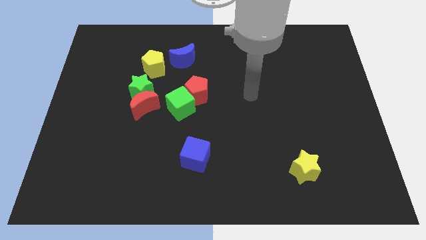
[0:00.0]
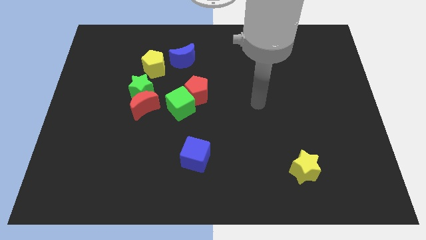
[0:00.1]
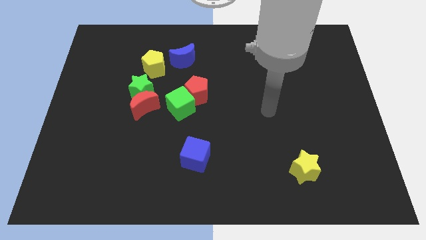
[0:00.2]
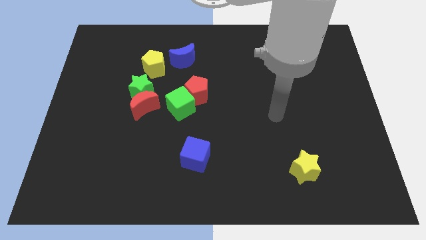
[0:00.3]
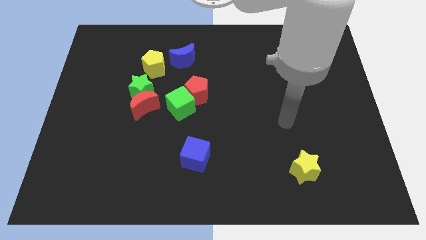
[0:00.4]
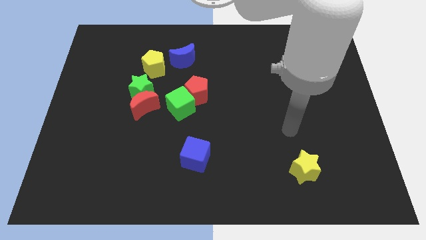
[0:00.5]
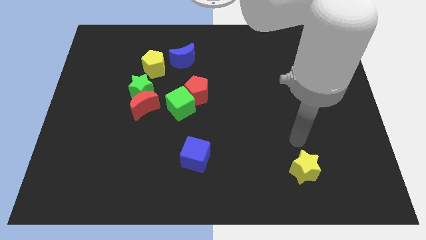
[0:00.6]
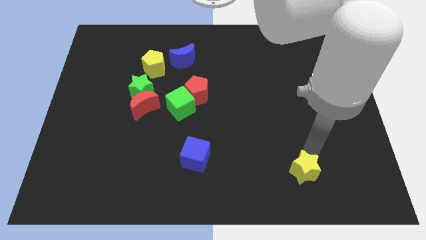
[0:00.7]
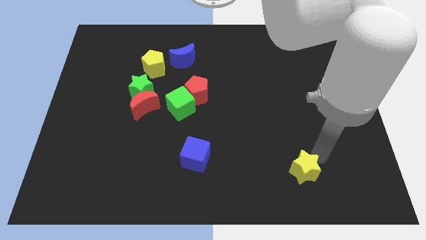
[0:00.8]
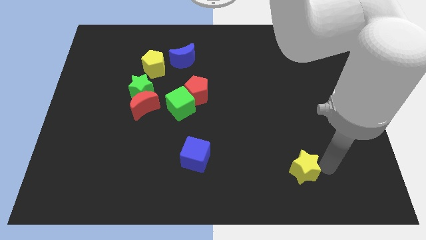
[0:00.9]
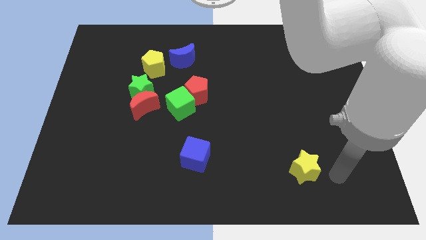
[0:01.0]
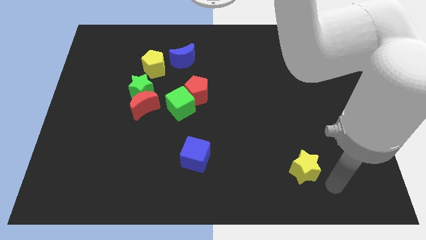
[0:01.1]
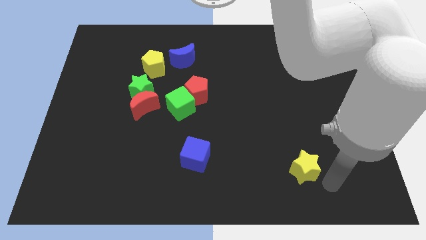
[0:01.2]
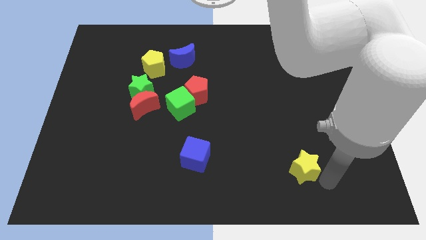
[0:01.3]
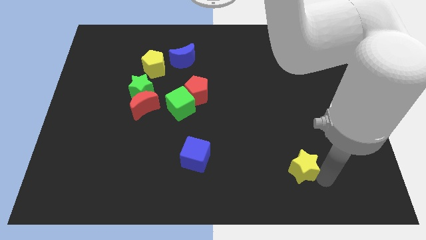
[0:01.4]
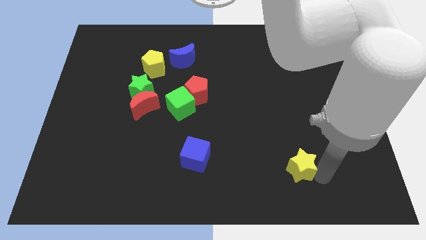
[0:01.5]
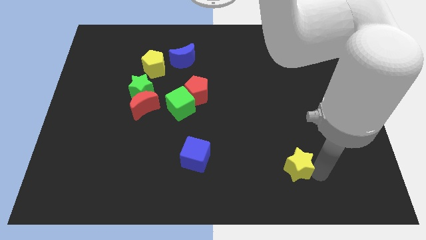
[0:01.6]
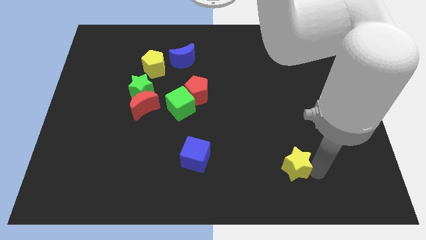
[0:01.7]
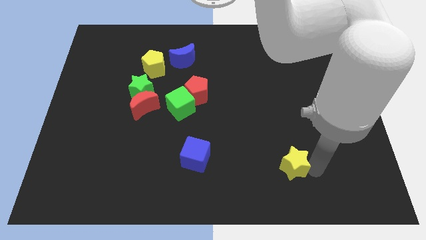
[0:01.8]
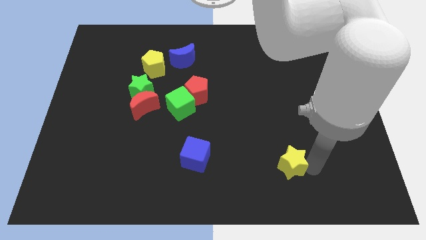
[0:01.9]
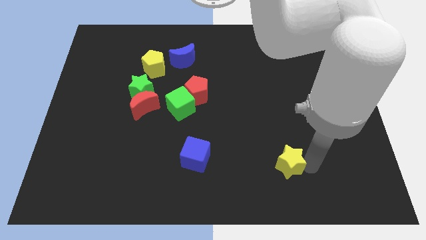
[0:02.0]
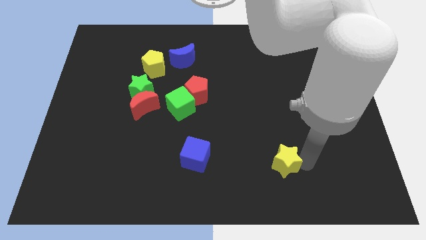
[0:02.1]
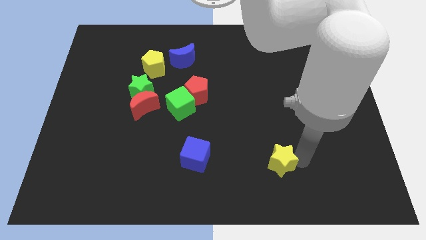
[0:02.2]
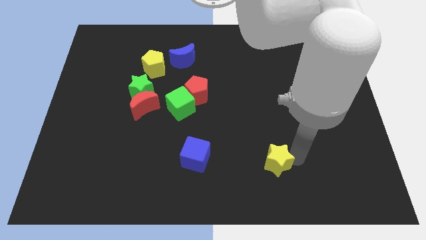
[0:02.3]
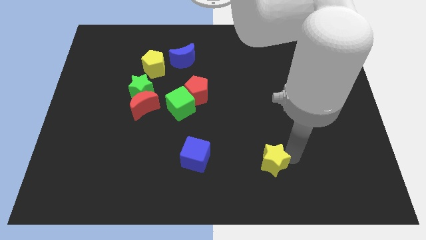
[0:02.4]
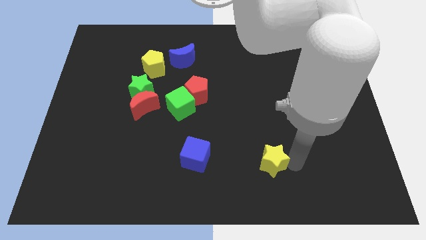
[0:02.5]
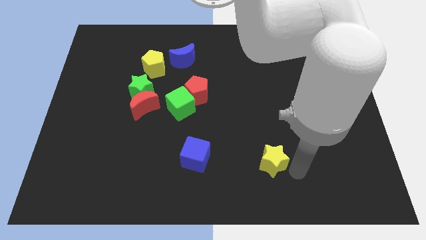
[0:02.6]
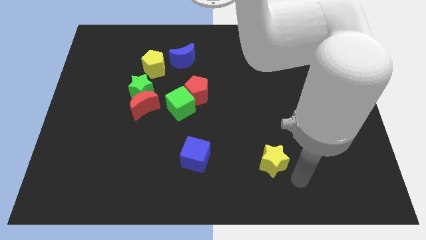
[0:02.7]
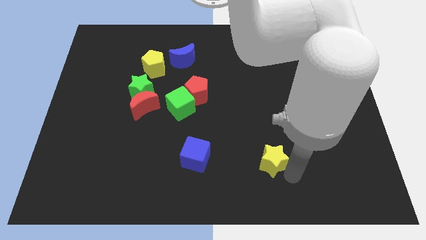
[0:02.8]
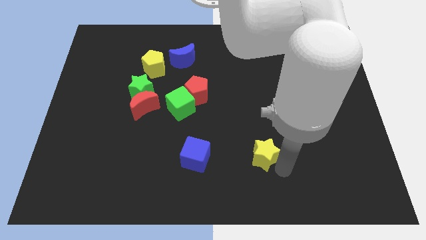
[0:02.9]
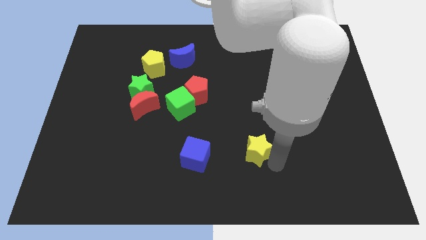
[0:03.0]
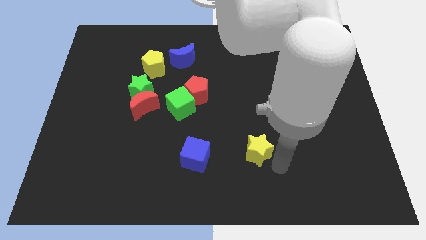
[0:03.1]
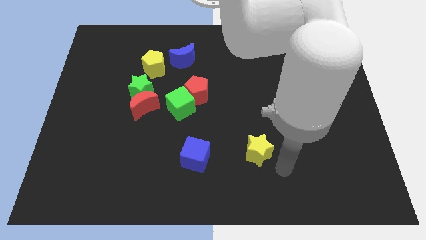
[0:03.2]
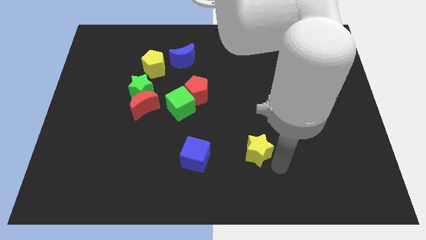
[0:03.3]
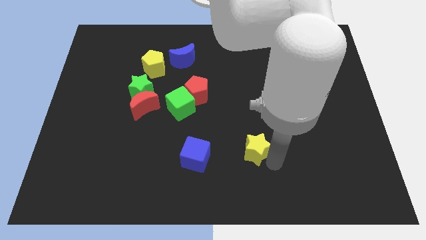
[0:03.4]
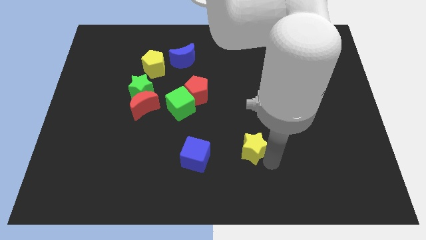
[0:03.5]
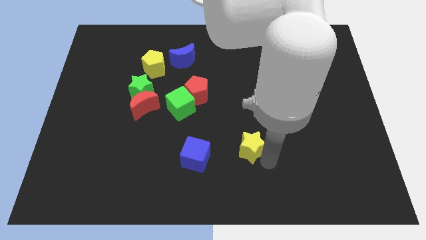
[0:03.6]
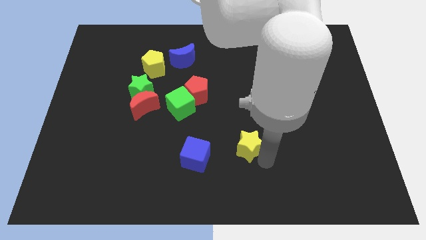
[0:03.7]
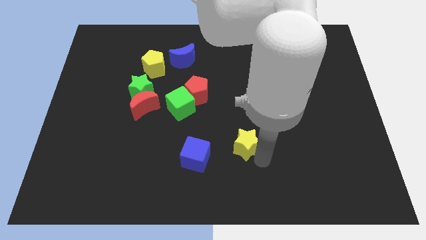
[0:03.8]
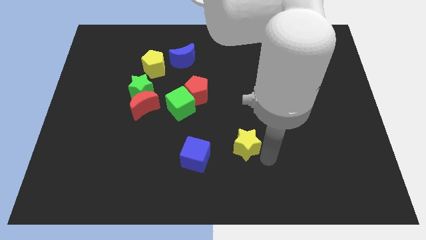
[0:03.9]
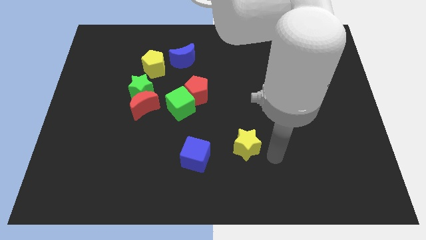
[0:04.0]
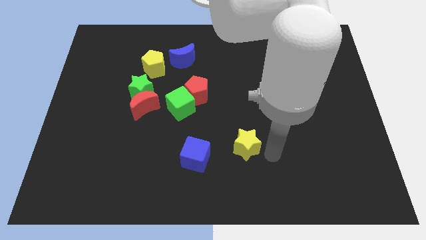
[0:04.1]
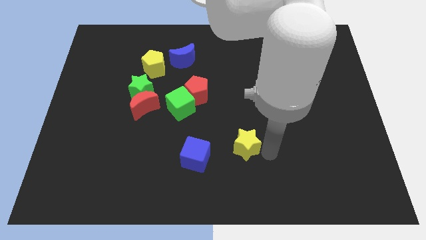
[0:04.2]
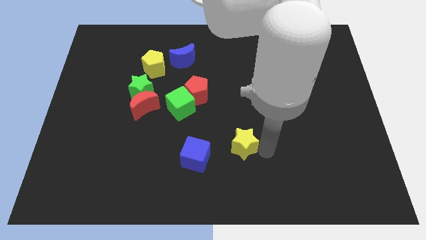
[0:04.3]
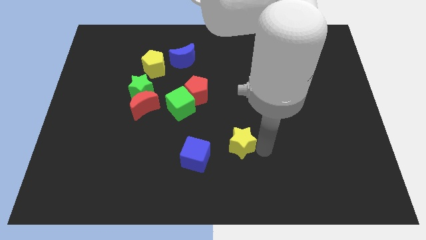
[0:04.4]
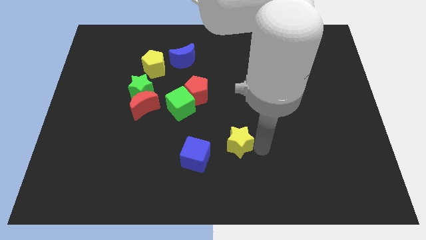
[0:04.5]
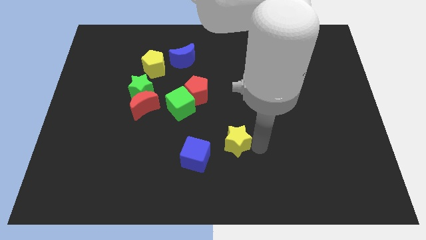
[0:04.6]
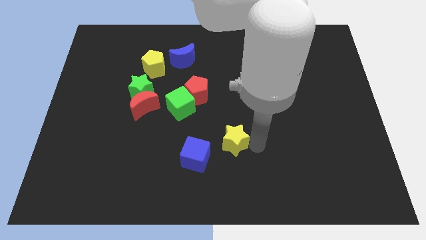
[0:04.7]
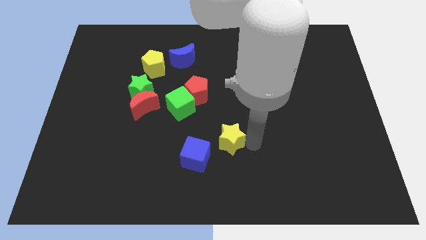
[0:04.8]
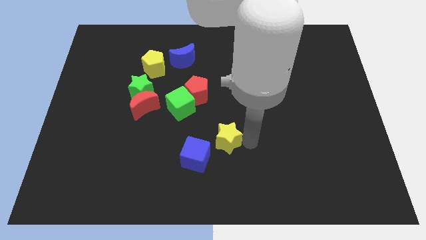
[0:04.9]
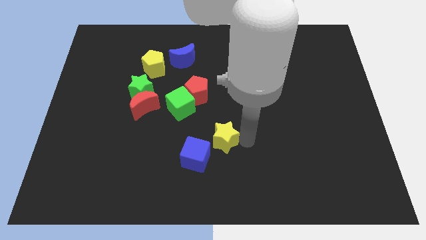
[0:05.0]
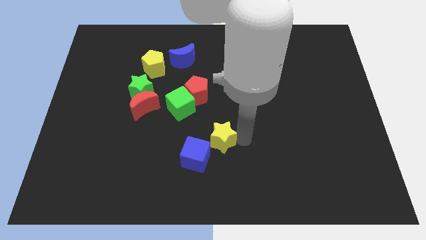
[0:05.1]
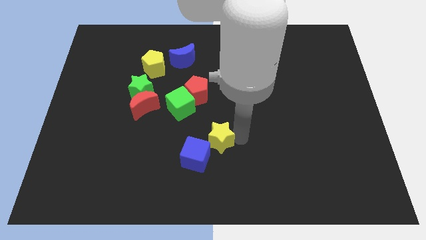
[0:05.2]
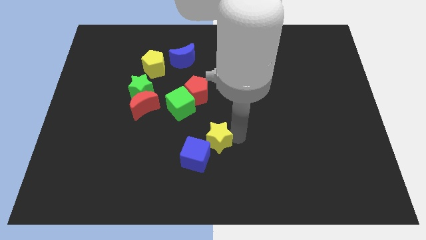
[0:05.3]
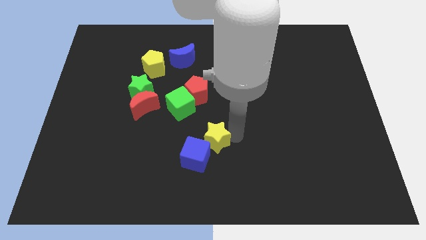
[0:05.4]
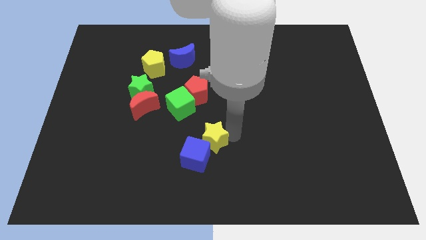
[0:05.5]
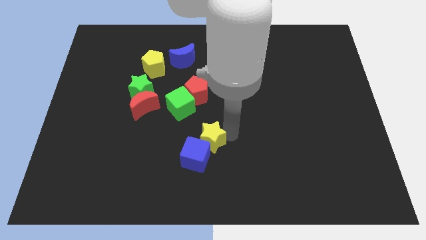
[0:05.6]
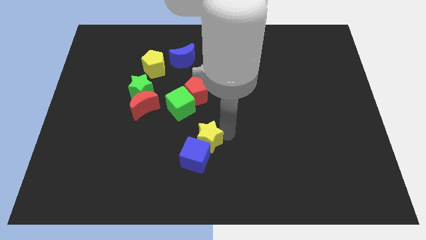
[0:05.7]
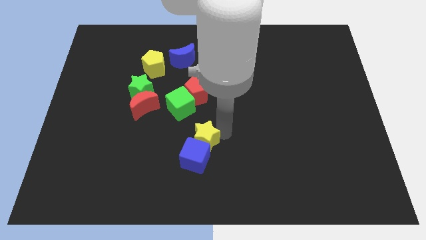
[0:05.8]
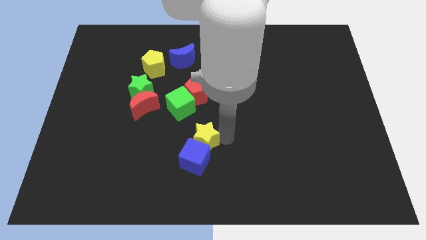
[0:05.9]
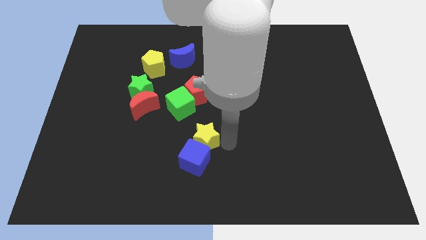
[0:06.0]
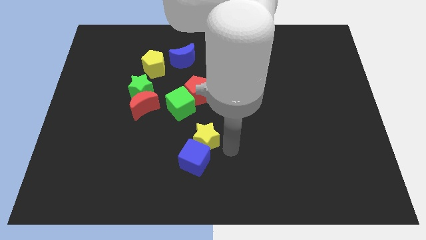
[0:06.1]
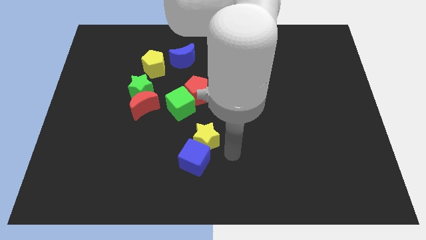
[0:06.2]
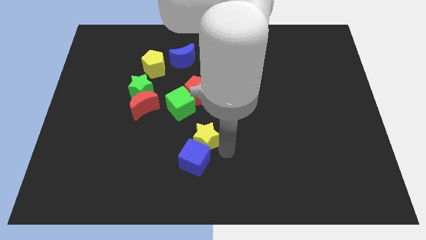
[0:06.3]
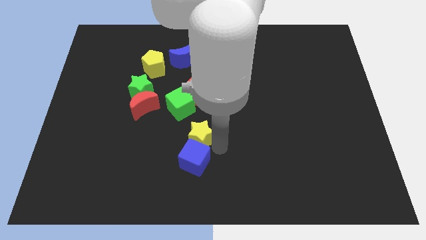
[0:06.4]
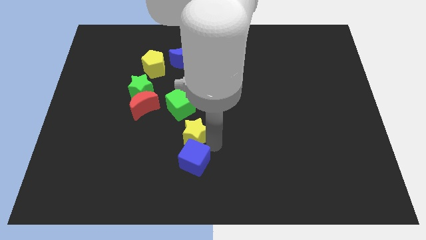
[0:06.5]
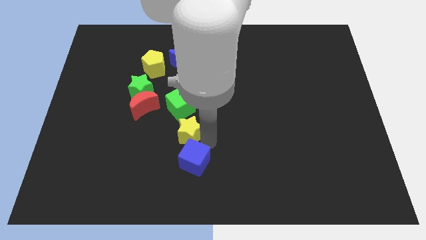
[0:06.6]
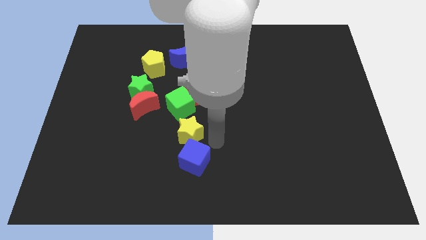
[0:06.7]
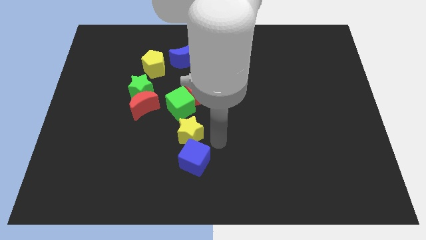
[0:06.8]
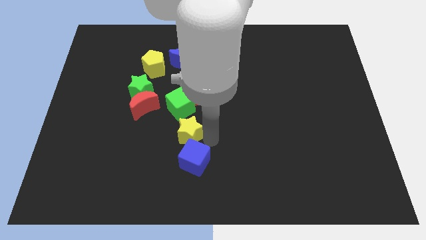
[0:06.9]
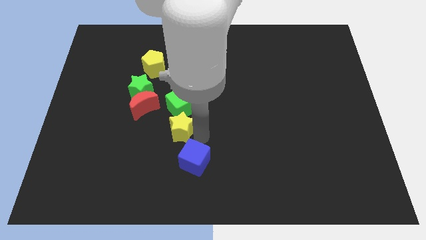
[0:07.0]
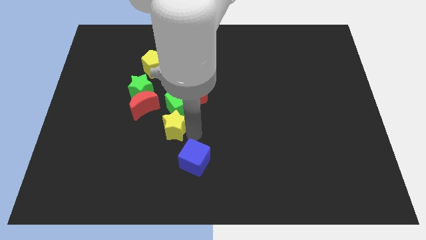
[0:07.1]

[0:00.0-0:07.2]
push the yellow star to the bottom left side of the green cube
